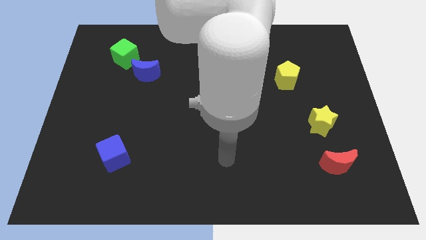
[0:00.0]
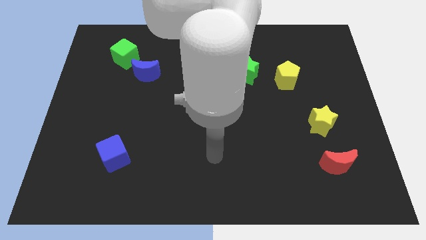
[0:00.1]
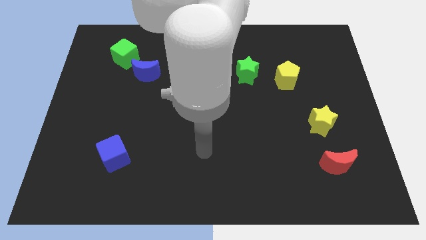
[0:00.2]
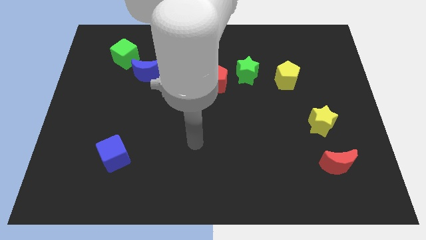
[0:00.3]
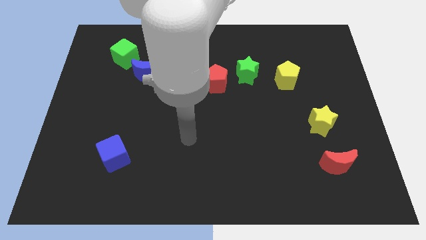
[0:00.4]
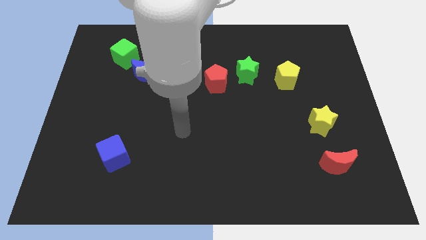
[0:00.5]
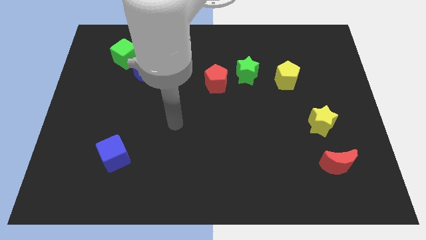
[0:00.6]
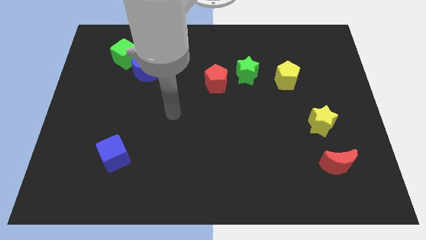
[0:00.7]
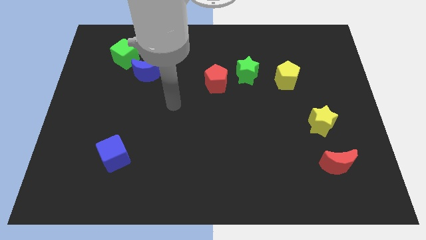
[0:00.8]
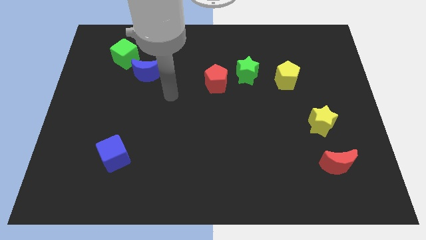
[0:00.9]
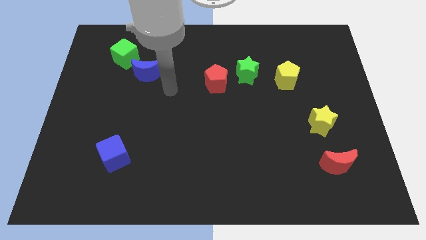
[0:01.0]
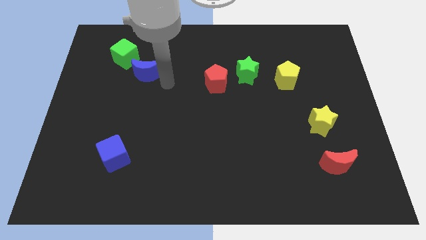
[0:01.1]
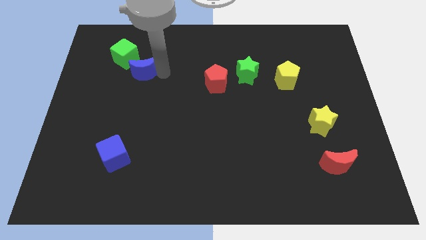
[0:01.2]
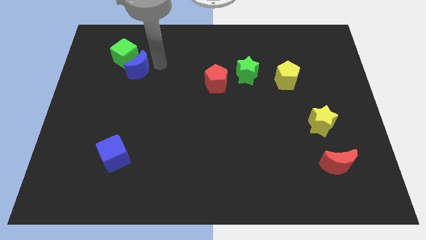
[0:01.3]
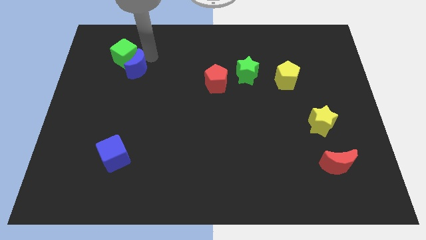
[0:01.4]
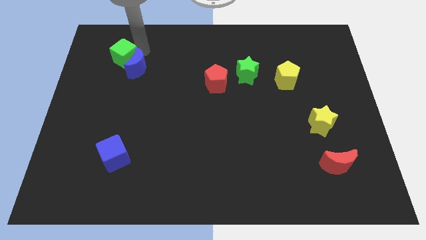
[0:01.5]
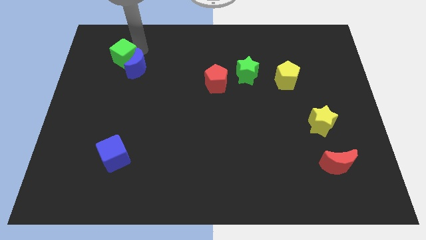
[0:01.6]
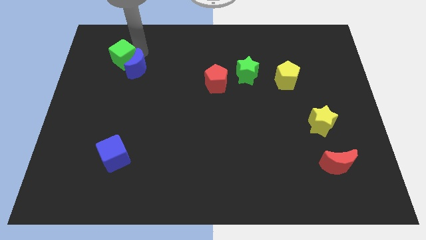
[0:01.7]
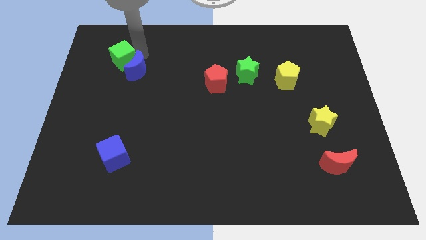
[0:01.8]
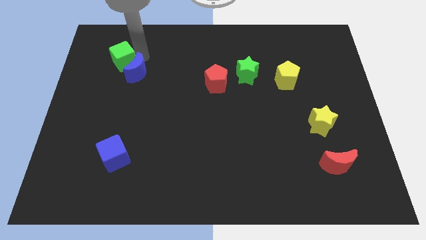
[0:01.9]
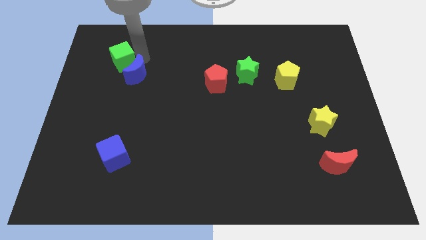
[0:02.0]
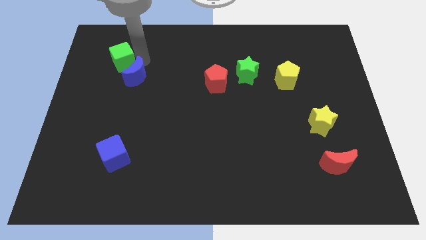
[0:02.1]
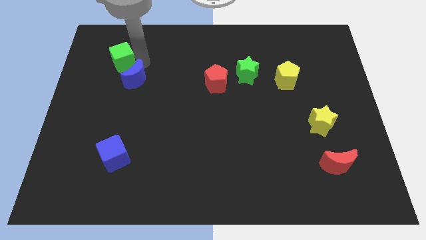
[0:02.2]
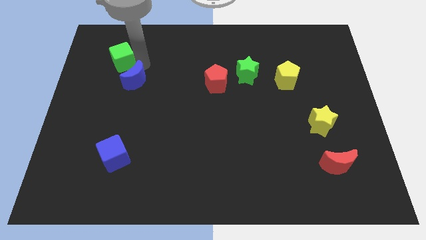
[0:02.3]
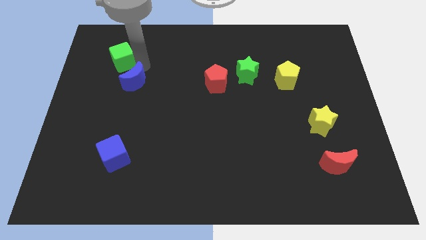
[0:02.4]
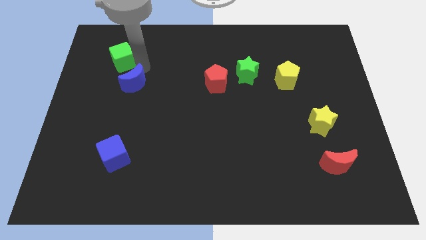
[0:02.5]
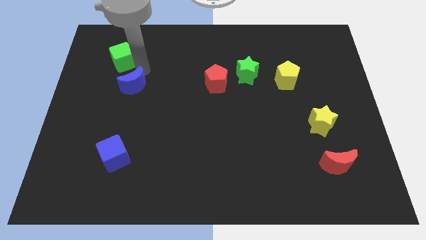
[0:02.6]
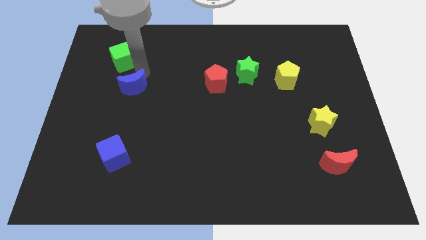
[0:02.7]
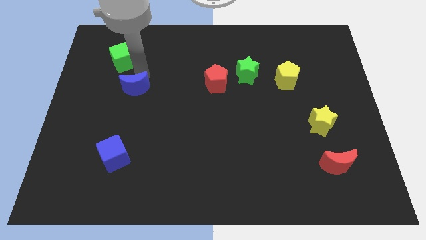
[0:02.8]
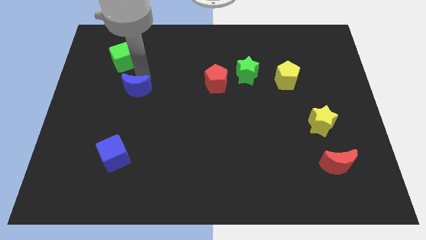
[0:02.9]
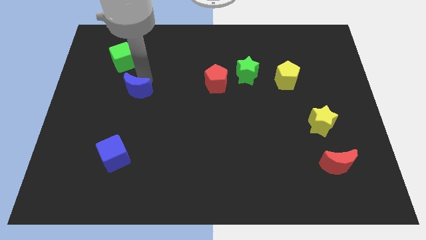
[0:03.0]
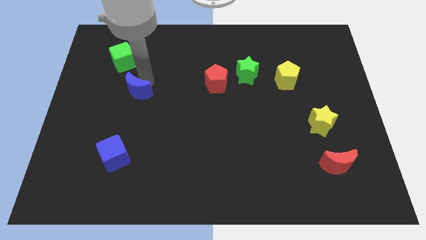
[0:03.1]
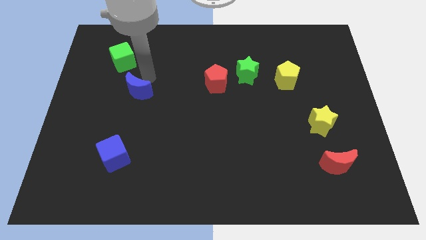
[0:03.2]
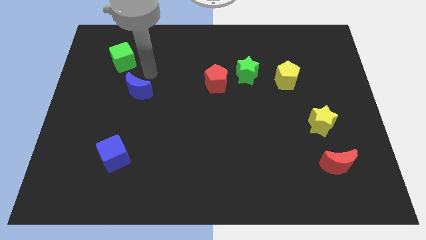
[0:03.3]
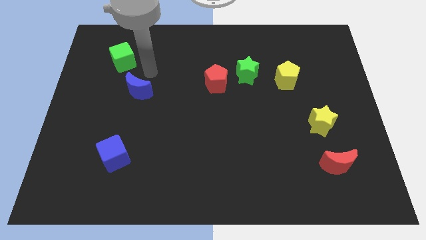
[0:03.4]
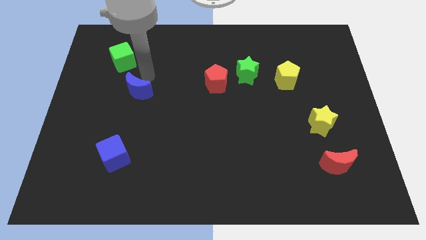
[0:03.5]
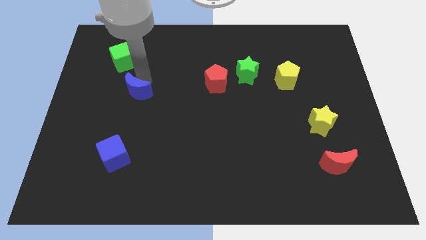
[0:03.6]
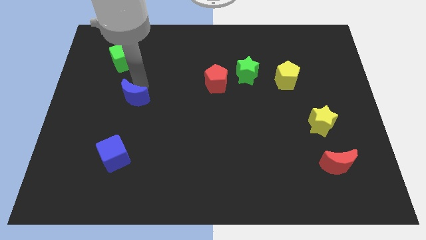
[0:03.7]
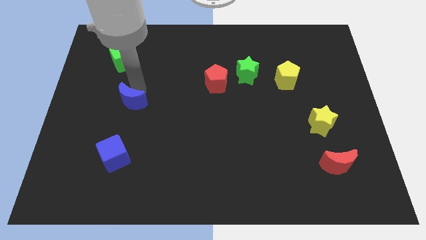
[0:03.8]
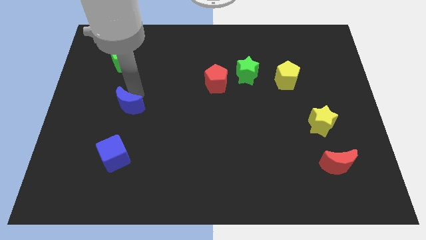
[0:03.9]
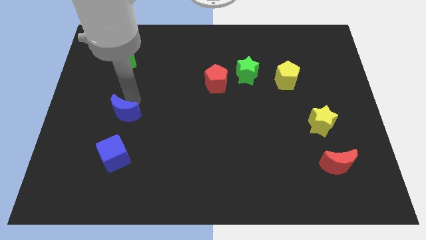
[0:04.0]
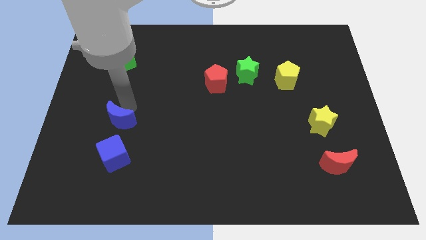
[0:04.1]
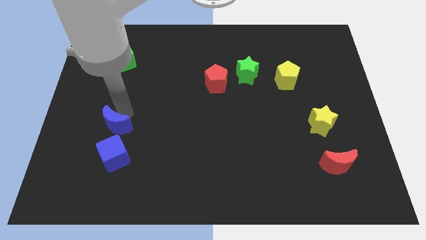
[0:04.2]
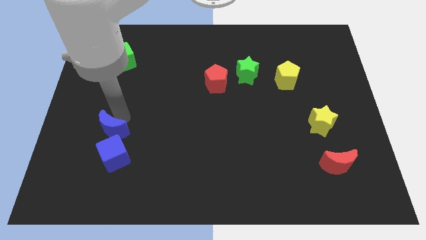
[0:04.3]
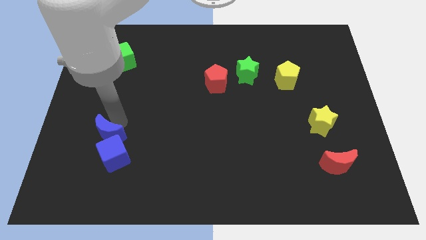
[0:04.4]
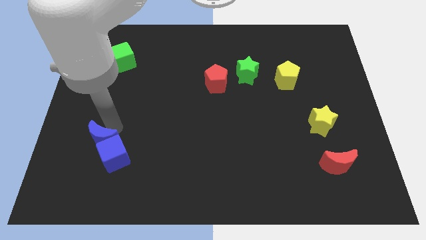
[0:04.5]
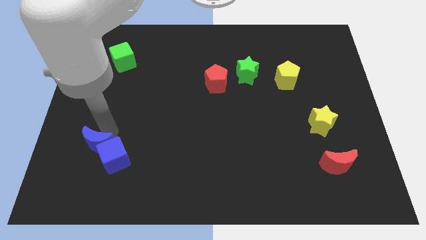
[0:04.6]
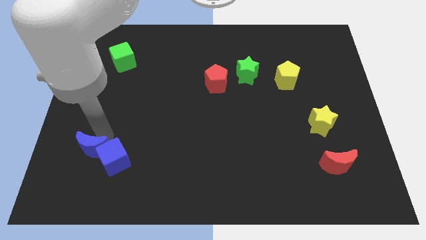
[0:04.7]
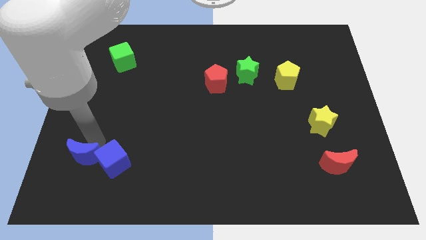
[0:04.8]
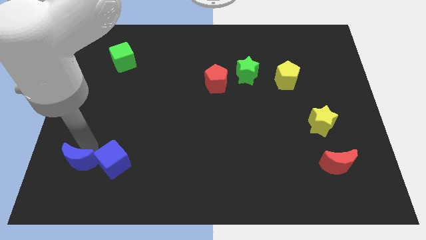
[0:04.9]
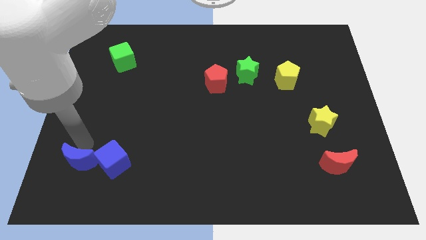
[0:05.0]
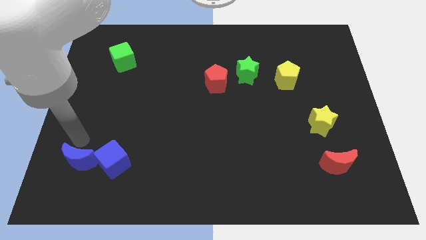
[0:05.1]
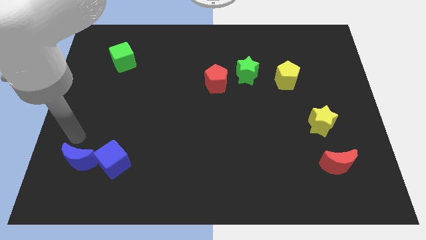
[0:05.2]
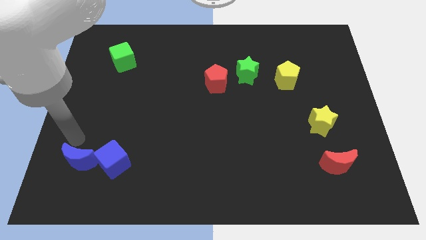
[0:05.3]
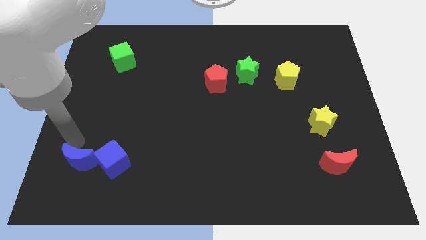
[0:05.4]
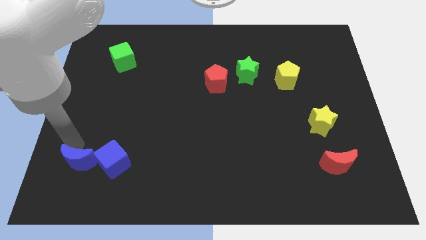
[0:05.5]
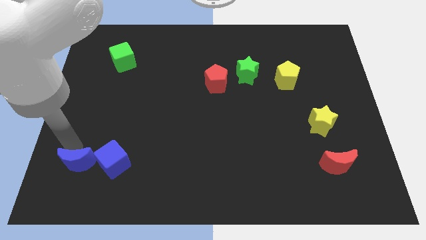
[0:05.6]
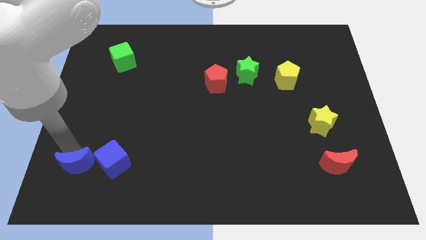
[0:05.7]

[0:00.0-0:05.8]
slide the blue moon to the bottom left of the blue cube
